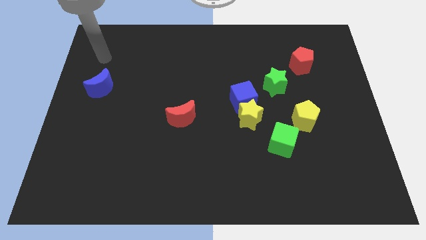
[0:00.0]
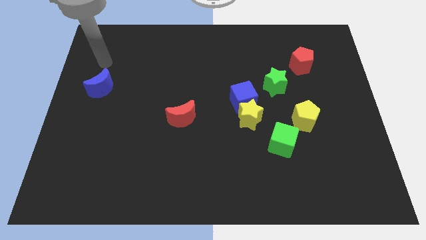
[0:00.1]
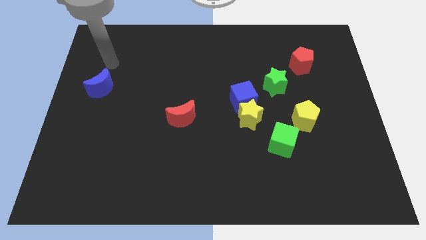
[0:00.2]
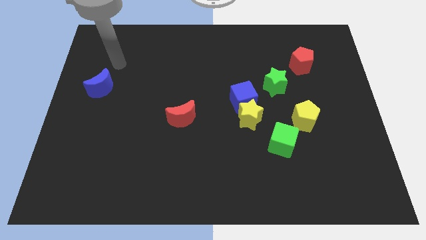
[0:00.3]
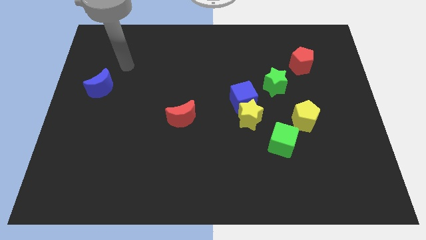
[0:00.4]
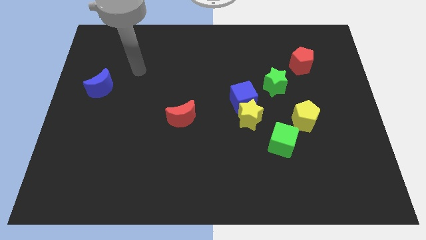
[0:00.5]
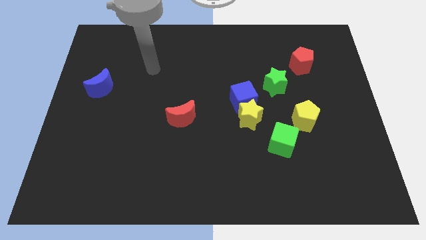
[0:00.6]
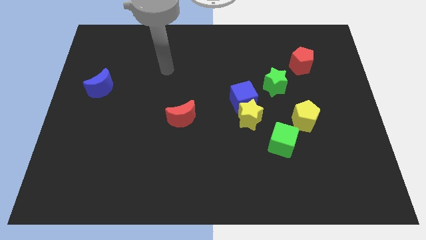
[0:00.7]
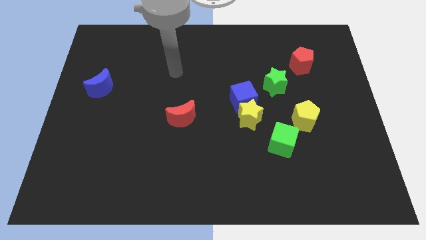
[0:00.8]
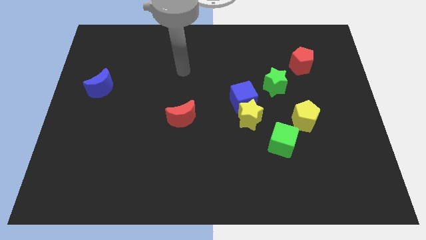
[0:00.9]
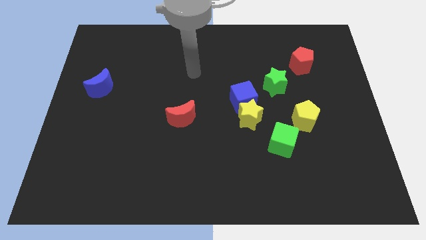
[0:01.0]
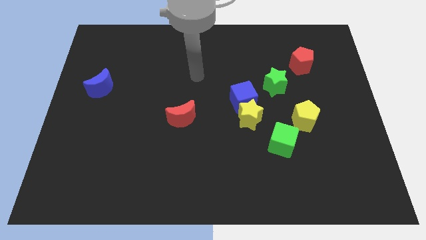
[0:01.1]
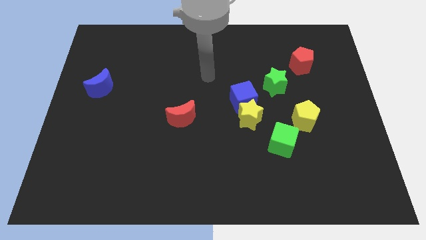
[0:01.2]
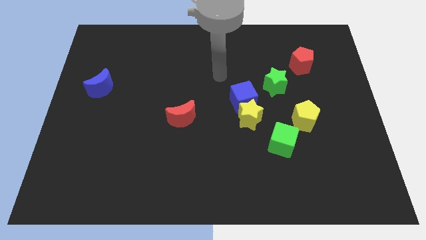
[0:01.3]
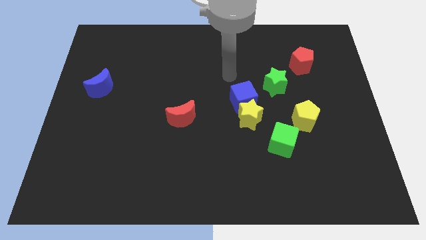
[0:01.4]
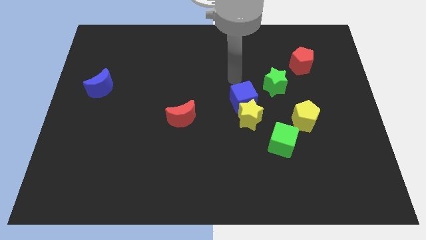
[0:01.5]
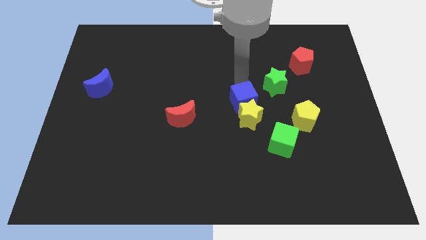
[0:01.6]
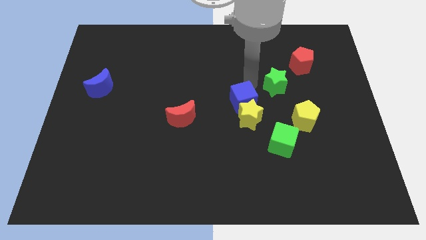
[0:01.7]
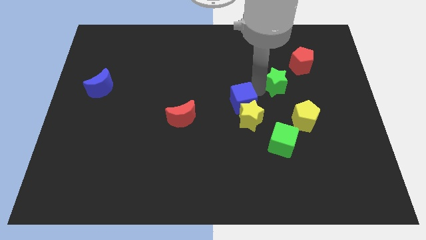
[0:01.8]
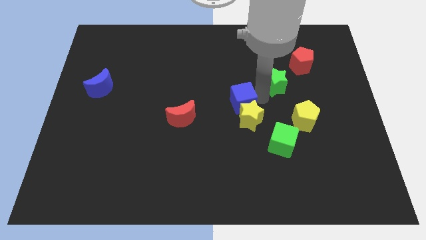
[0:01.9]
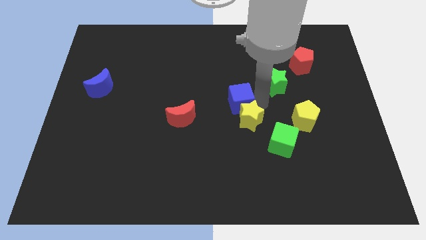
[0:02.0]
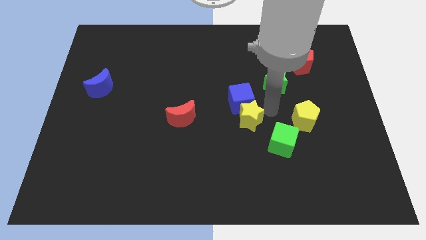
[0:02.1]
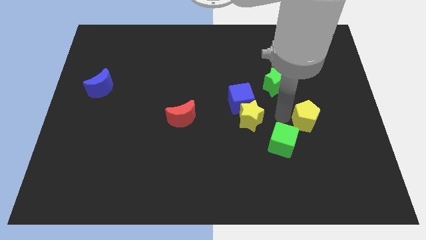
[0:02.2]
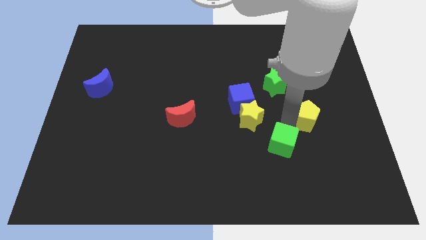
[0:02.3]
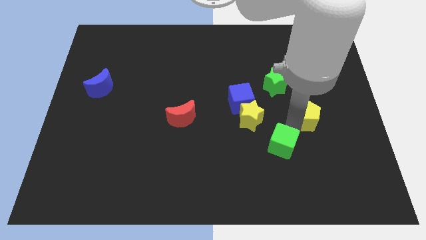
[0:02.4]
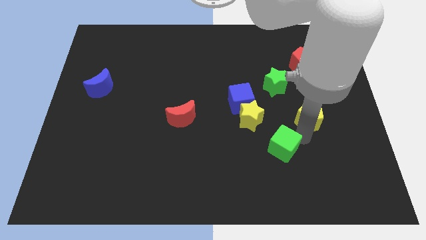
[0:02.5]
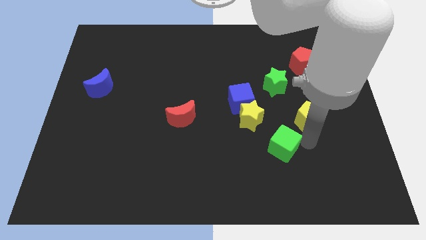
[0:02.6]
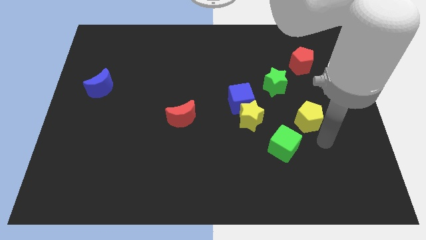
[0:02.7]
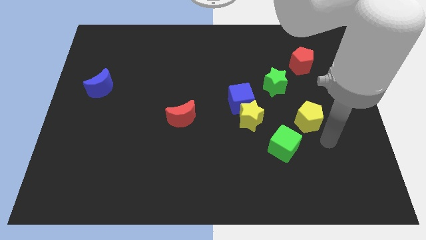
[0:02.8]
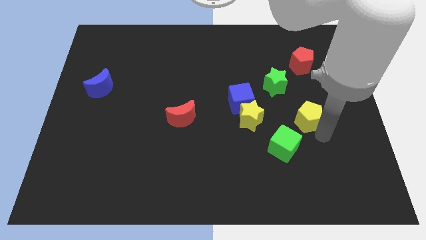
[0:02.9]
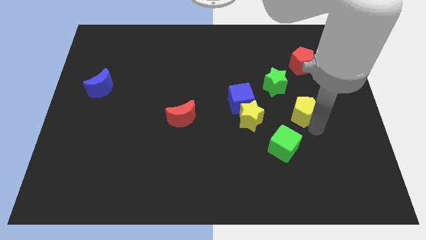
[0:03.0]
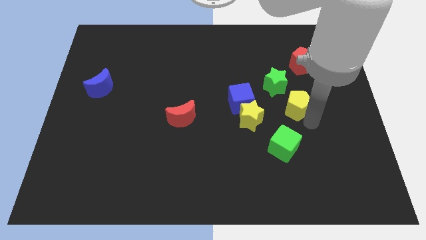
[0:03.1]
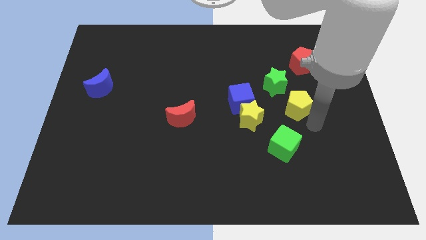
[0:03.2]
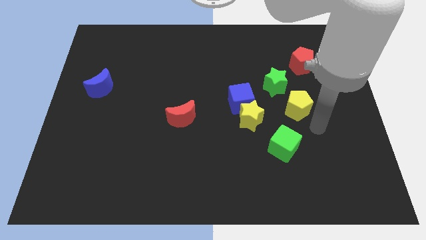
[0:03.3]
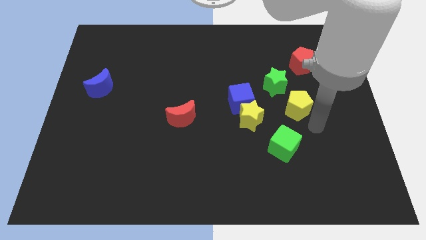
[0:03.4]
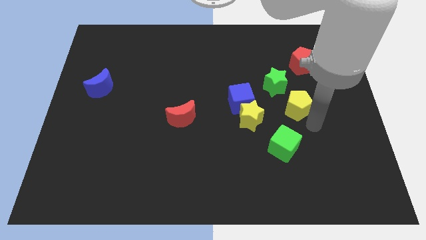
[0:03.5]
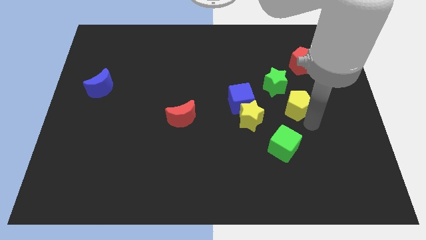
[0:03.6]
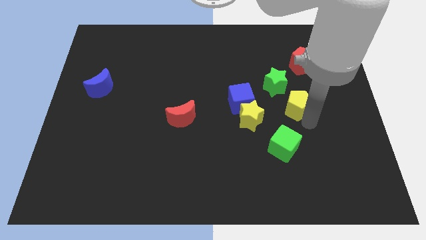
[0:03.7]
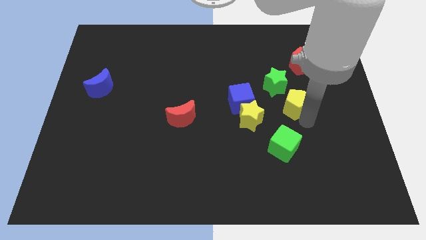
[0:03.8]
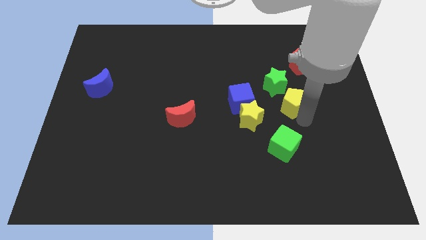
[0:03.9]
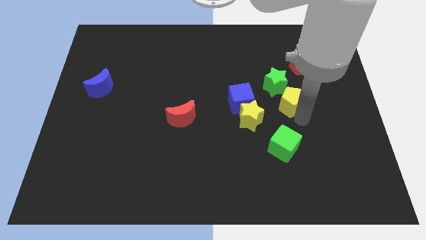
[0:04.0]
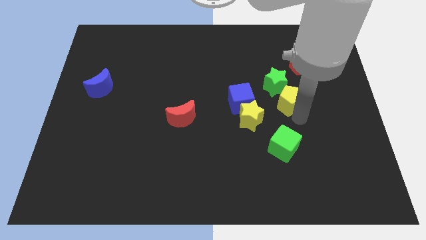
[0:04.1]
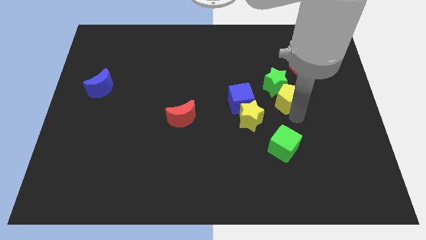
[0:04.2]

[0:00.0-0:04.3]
put the yellow pentagon to the green star

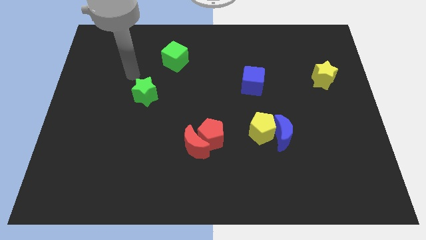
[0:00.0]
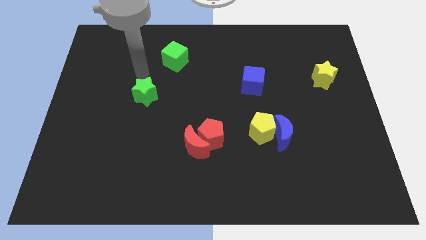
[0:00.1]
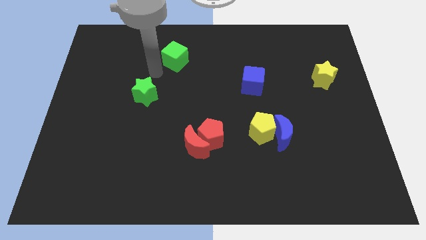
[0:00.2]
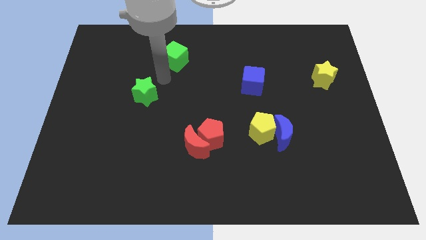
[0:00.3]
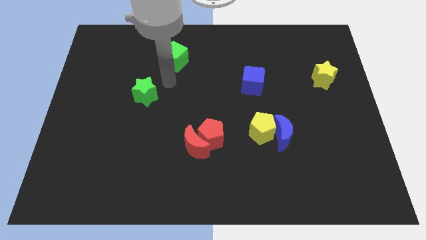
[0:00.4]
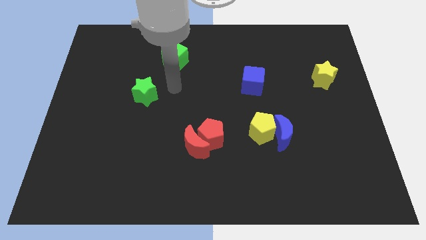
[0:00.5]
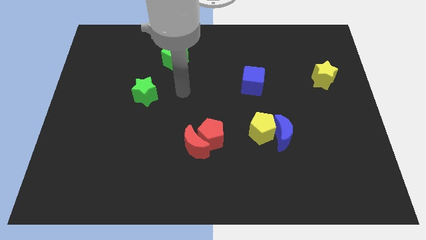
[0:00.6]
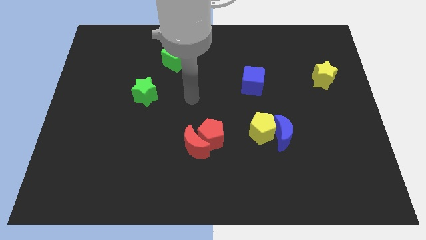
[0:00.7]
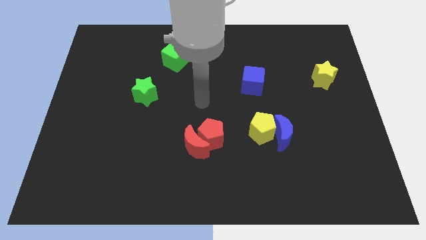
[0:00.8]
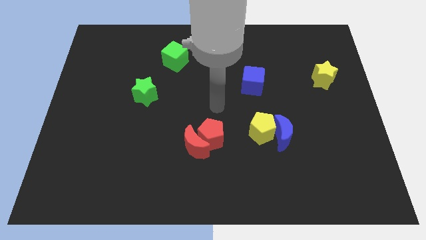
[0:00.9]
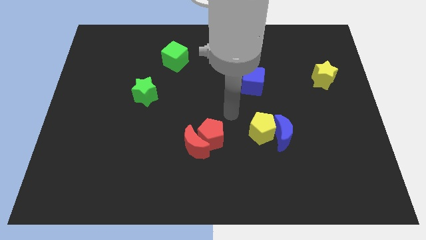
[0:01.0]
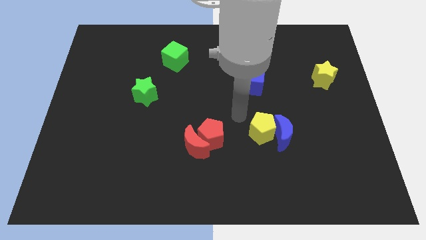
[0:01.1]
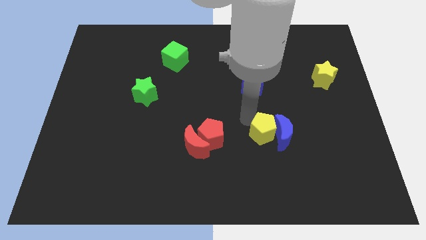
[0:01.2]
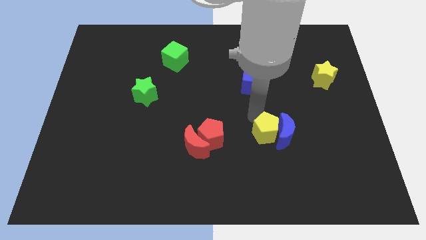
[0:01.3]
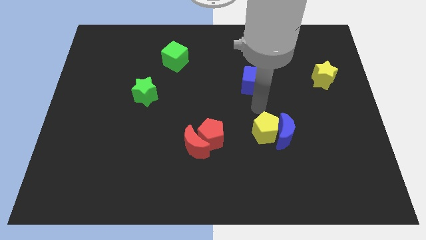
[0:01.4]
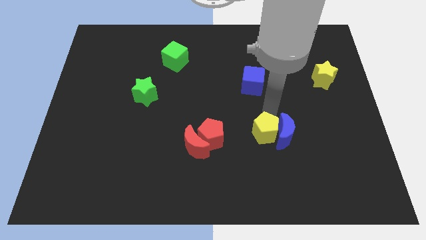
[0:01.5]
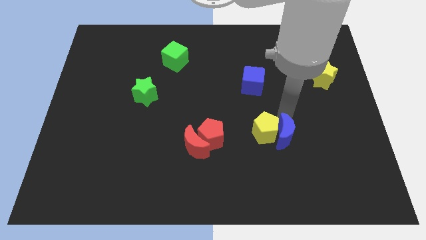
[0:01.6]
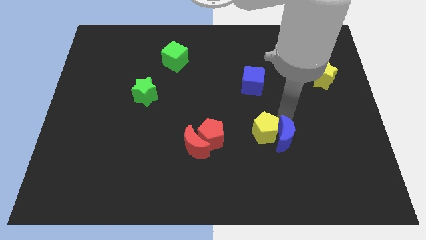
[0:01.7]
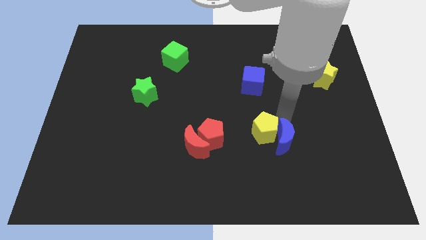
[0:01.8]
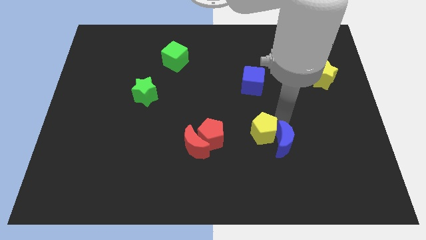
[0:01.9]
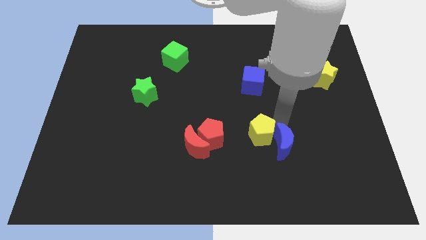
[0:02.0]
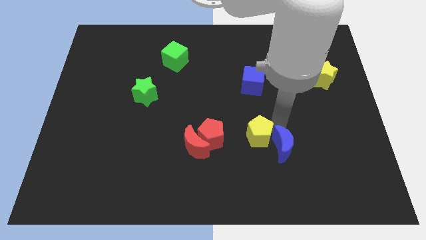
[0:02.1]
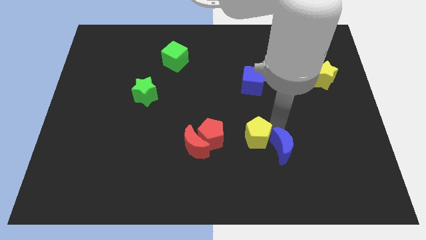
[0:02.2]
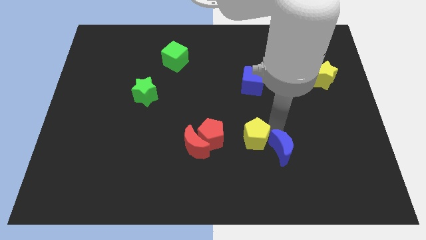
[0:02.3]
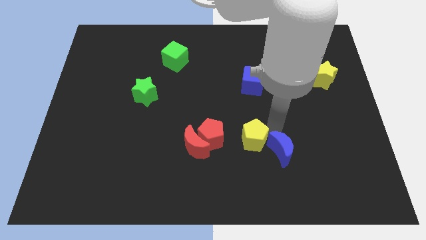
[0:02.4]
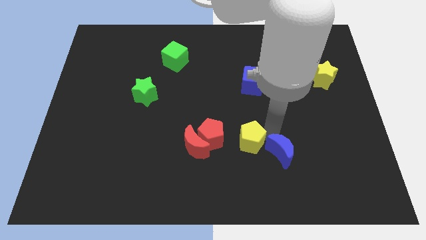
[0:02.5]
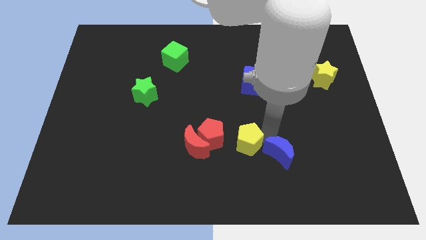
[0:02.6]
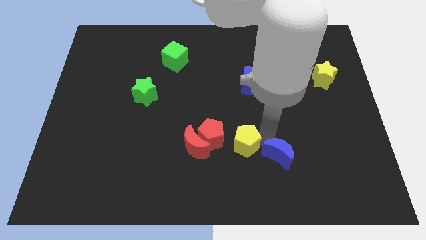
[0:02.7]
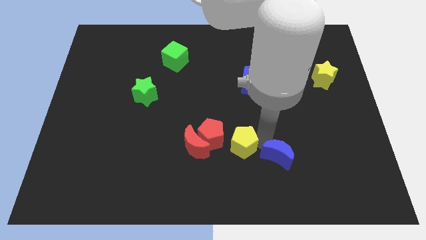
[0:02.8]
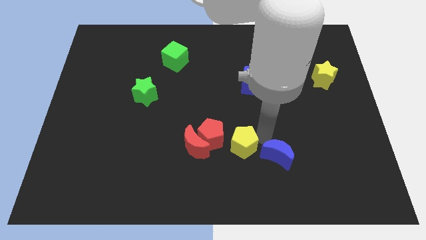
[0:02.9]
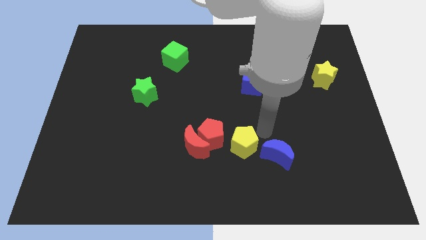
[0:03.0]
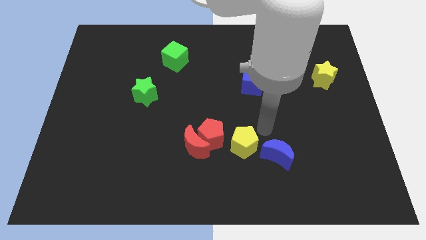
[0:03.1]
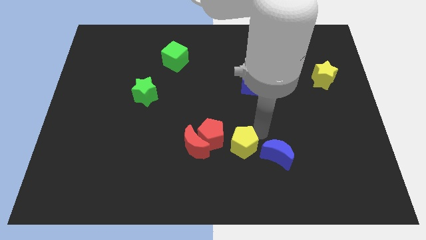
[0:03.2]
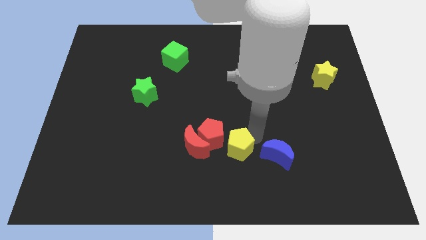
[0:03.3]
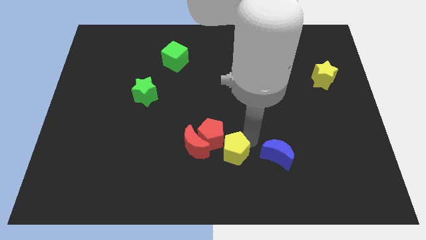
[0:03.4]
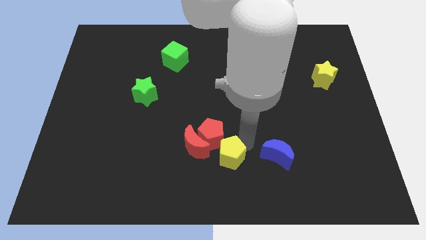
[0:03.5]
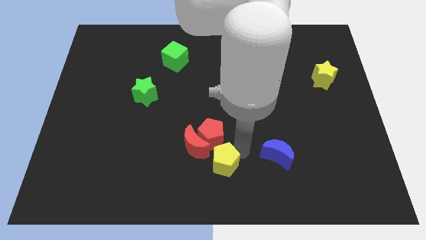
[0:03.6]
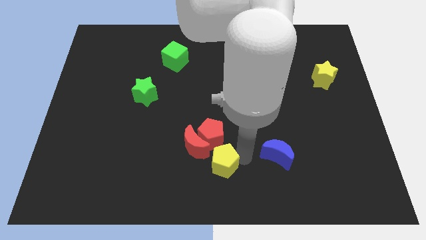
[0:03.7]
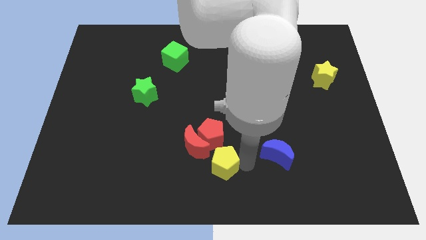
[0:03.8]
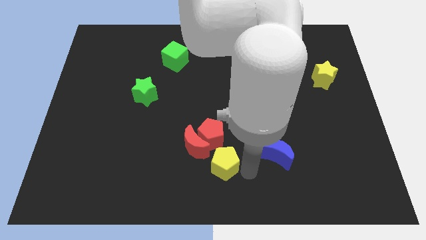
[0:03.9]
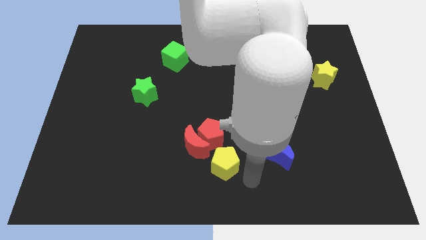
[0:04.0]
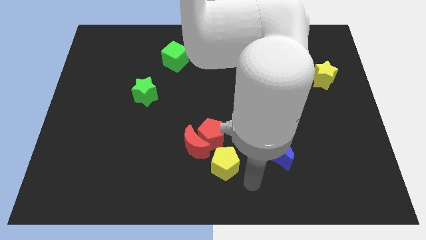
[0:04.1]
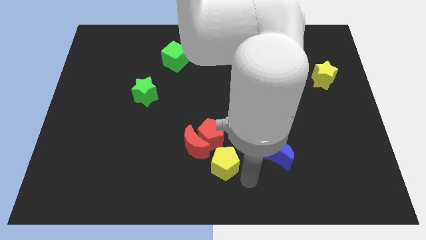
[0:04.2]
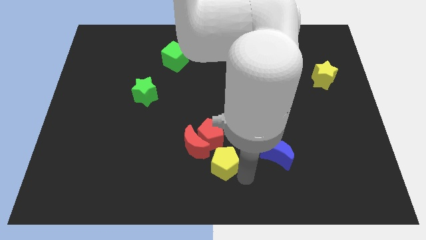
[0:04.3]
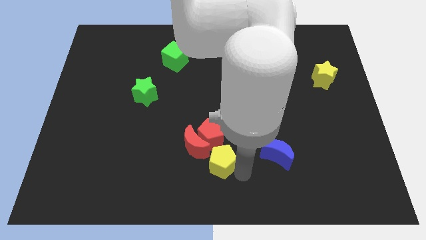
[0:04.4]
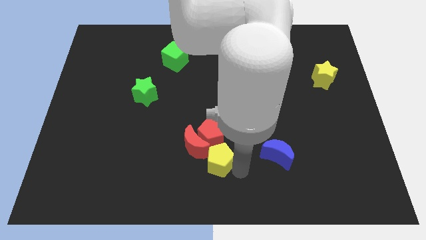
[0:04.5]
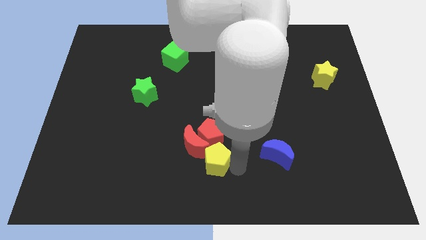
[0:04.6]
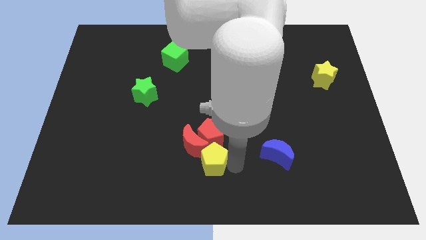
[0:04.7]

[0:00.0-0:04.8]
push the yellow pentagon towards the red moon
